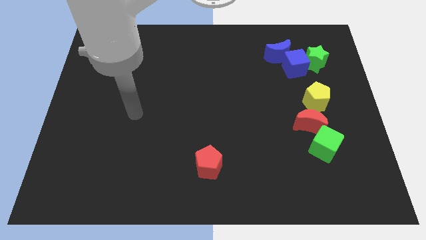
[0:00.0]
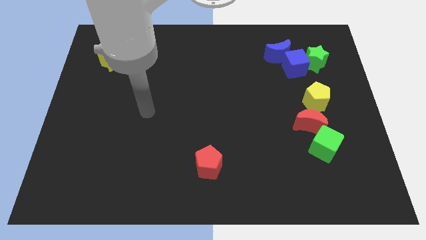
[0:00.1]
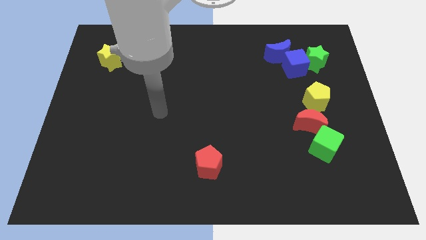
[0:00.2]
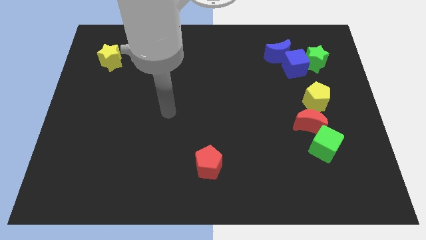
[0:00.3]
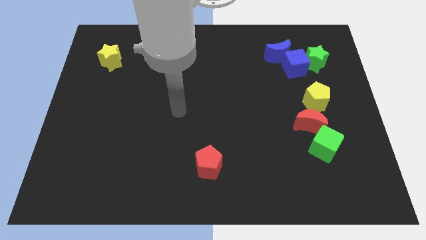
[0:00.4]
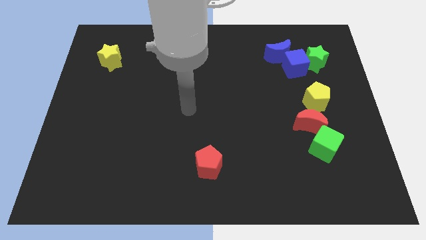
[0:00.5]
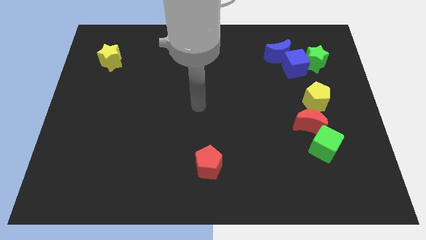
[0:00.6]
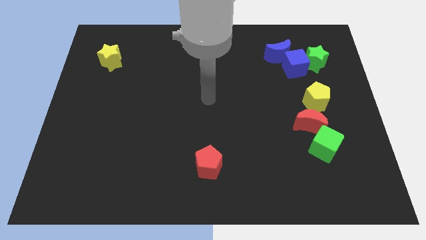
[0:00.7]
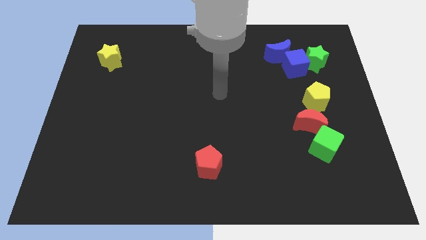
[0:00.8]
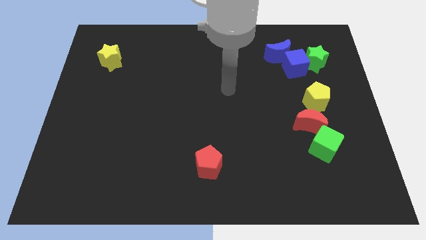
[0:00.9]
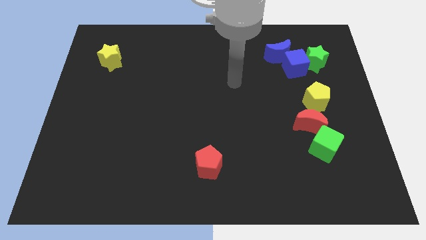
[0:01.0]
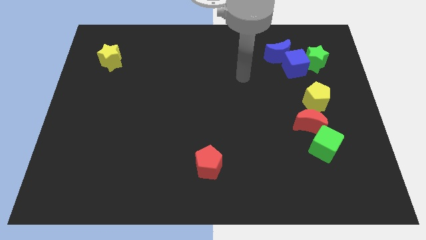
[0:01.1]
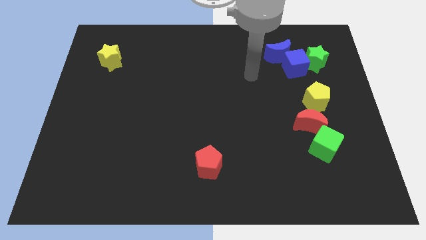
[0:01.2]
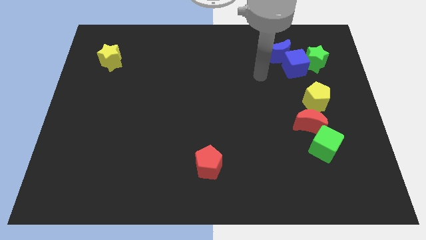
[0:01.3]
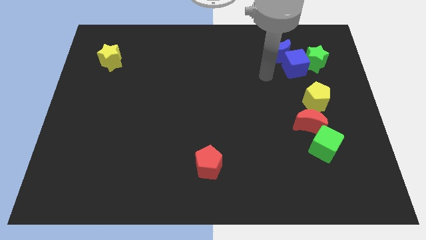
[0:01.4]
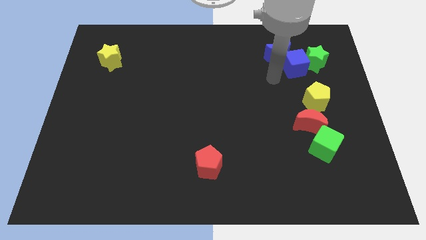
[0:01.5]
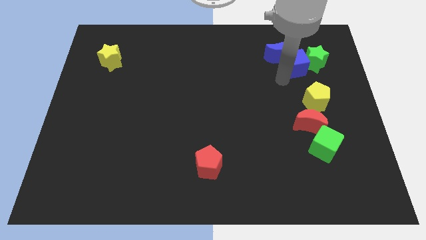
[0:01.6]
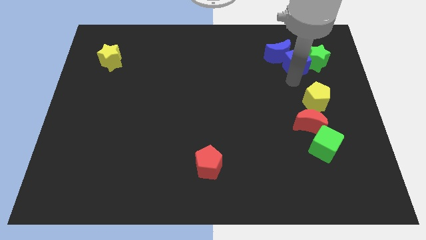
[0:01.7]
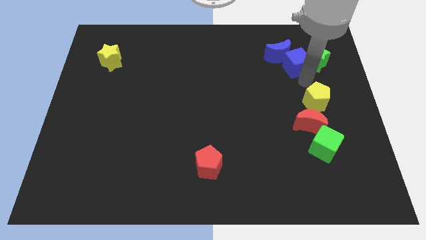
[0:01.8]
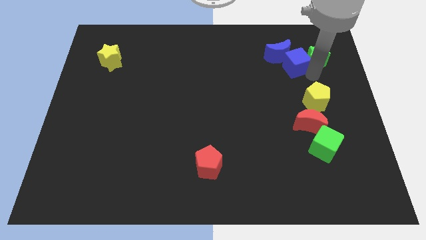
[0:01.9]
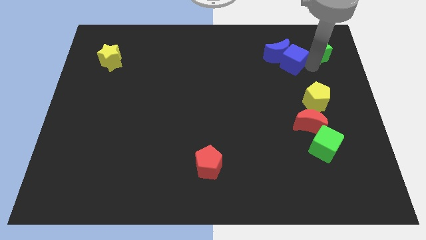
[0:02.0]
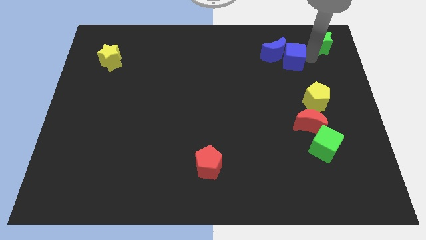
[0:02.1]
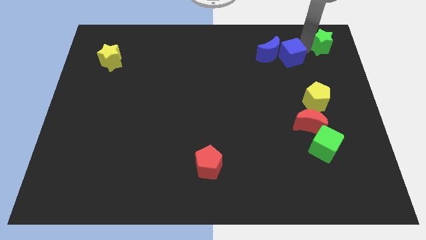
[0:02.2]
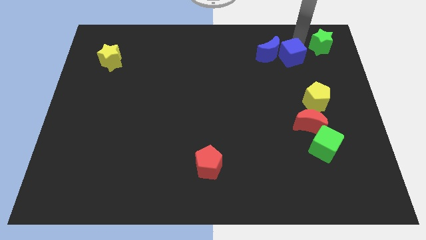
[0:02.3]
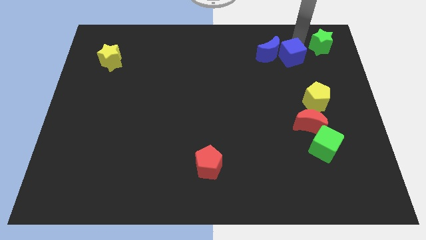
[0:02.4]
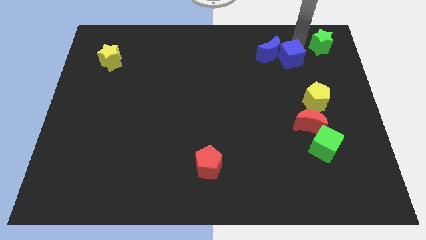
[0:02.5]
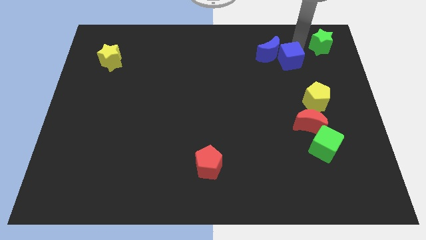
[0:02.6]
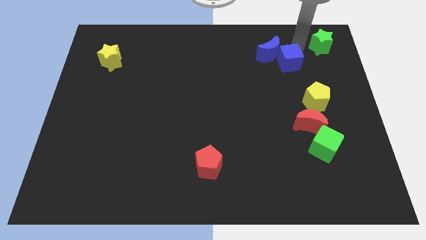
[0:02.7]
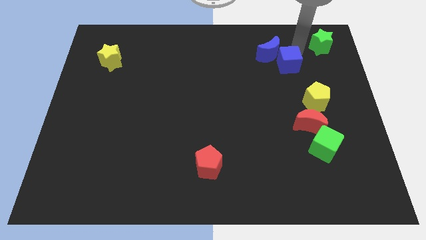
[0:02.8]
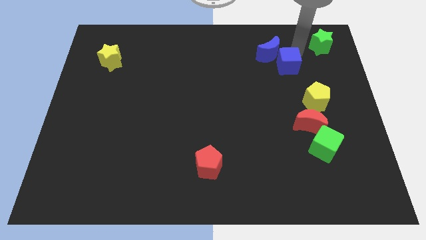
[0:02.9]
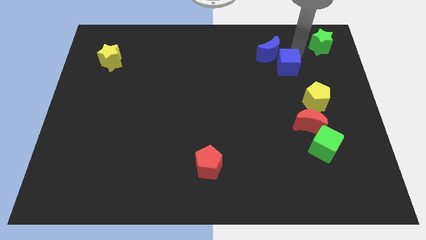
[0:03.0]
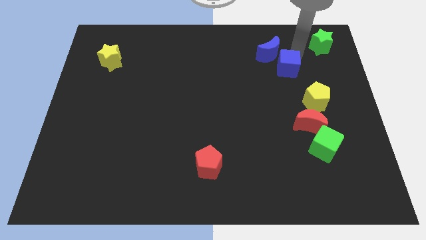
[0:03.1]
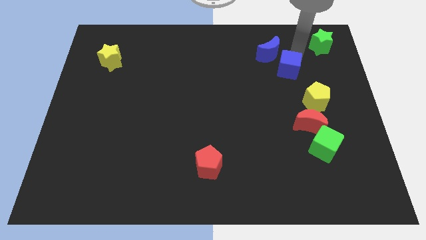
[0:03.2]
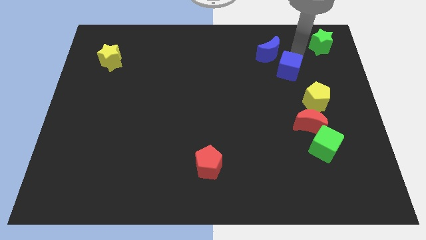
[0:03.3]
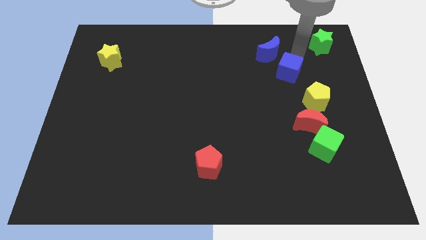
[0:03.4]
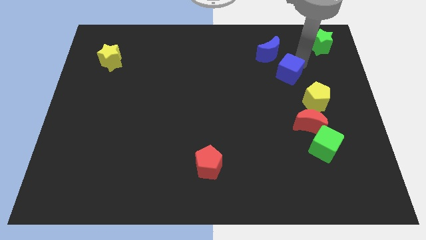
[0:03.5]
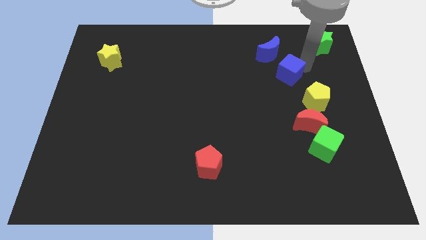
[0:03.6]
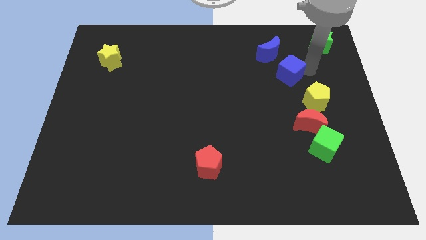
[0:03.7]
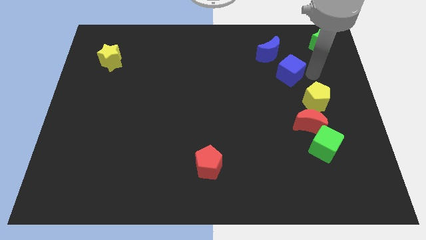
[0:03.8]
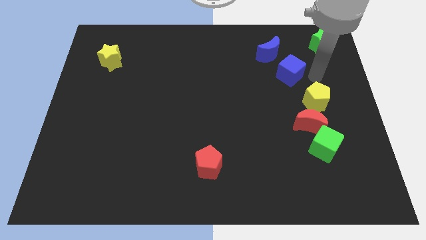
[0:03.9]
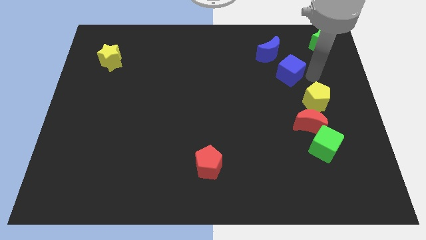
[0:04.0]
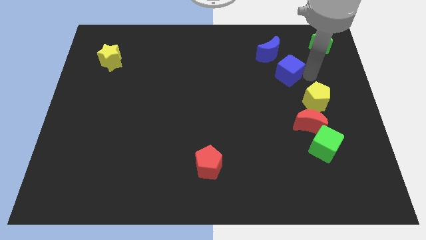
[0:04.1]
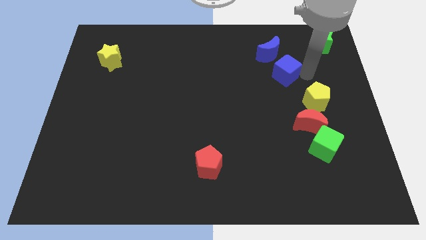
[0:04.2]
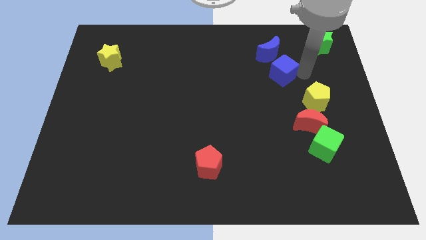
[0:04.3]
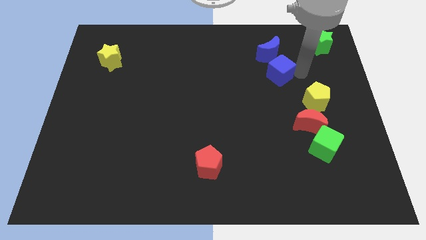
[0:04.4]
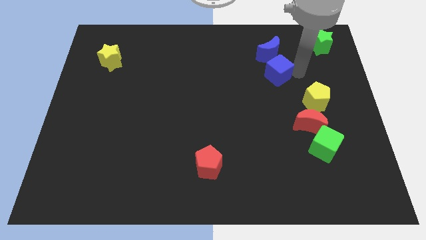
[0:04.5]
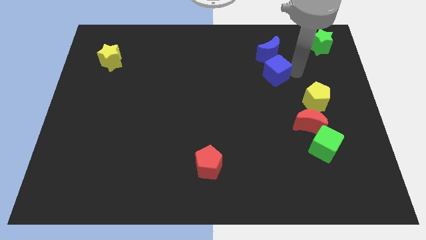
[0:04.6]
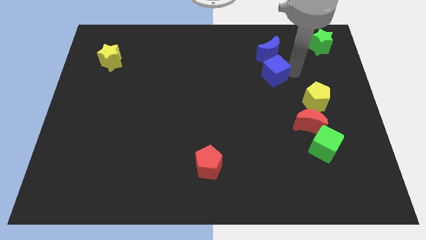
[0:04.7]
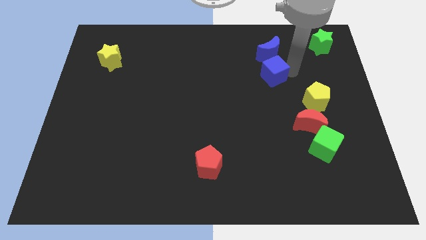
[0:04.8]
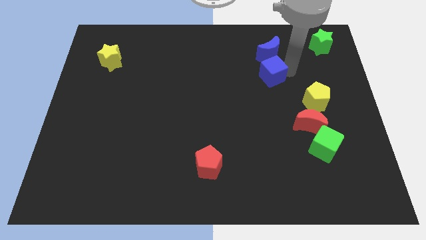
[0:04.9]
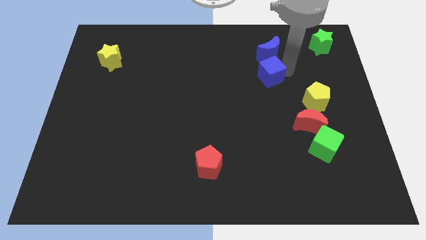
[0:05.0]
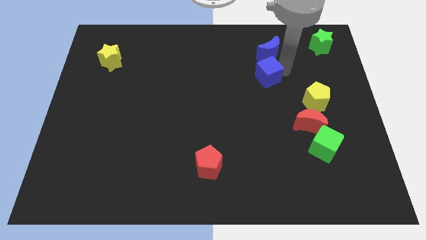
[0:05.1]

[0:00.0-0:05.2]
slightly slide the blue cube to the left

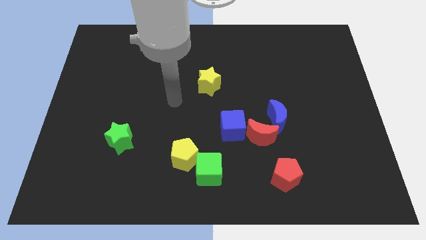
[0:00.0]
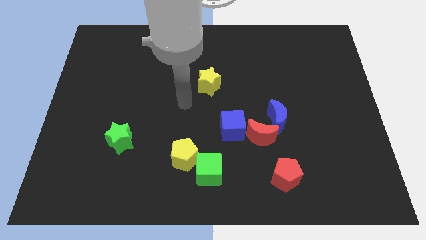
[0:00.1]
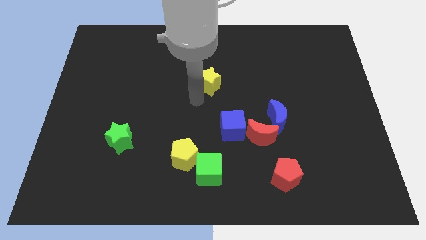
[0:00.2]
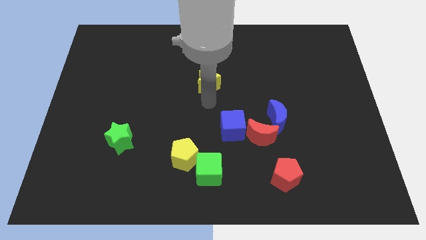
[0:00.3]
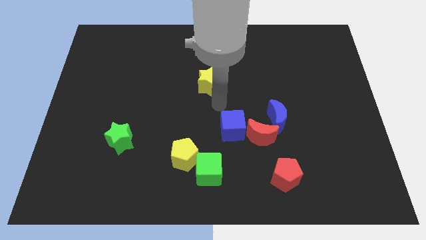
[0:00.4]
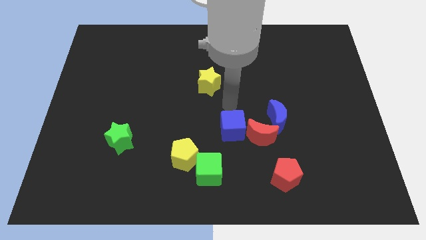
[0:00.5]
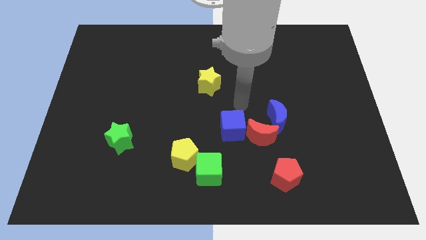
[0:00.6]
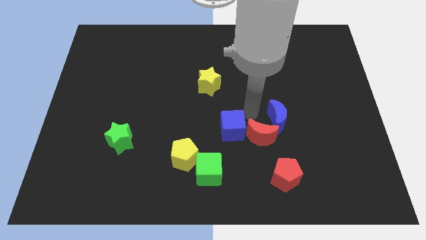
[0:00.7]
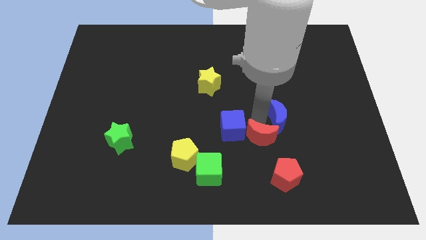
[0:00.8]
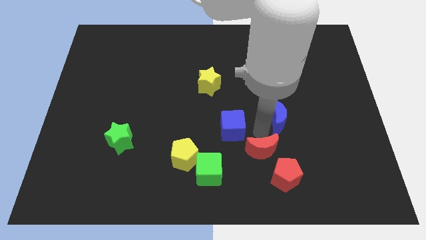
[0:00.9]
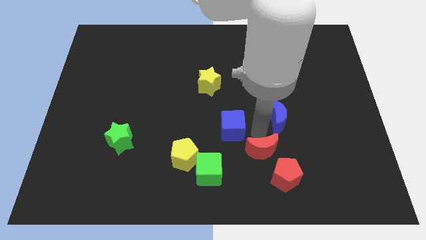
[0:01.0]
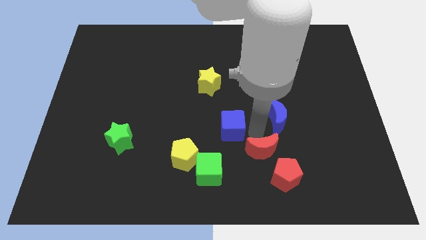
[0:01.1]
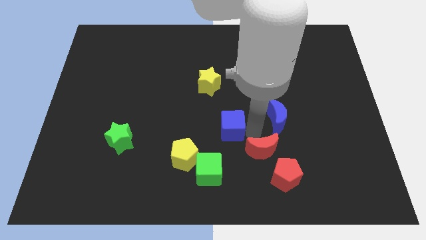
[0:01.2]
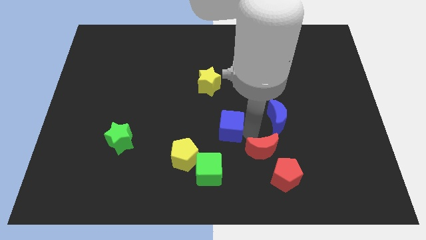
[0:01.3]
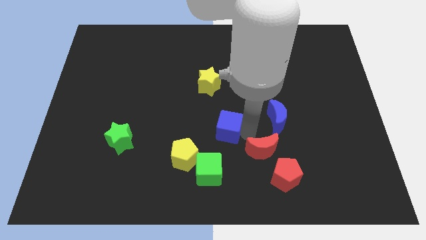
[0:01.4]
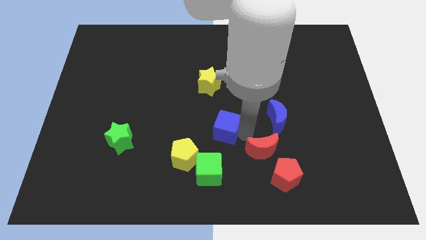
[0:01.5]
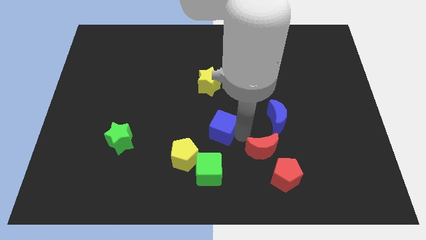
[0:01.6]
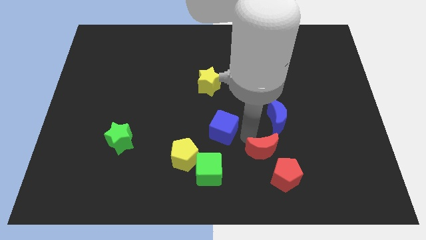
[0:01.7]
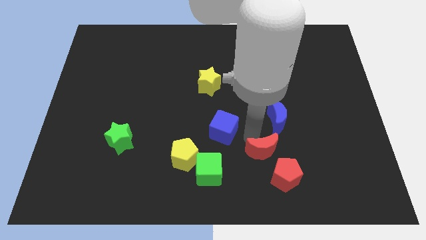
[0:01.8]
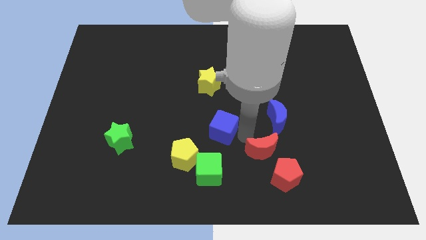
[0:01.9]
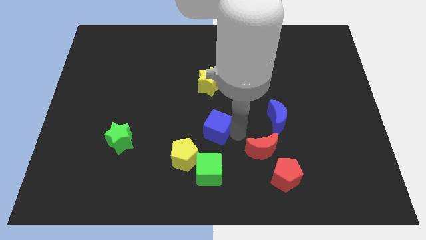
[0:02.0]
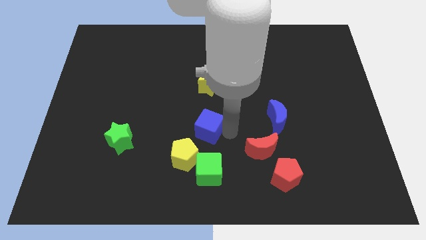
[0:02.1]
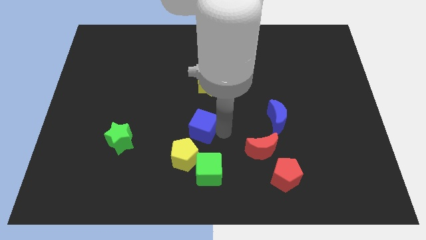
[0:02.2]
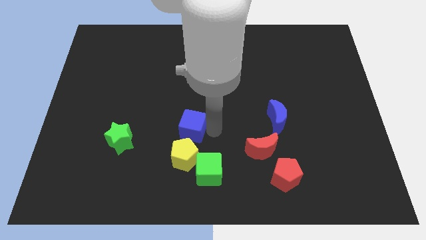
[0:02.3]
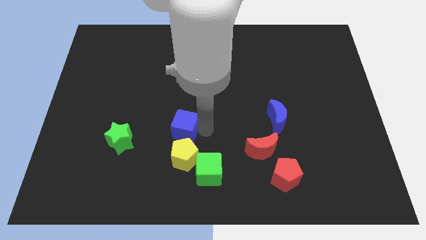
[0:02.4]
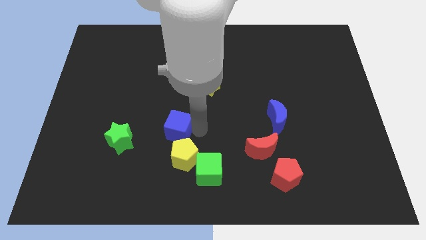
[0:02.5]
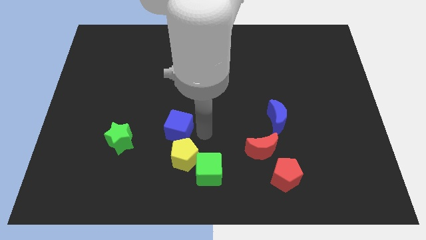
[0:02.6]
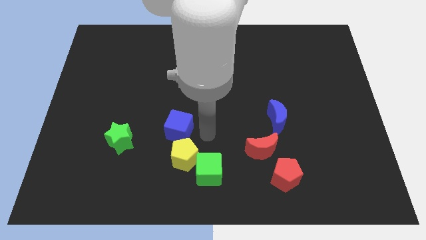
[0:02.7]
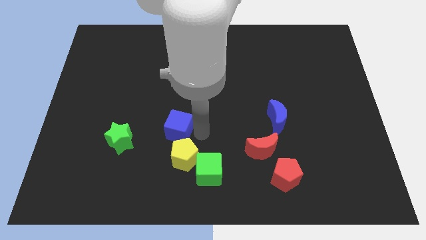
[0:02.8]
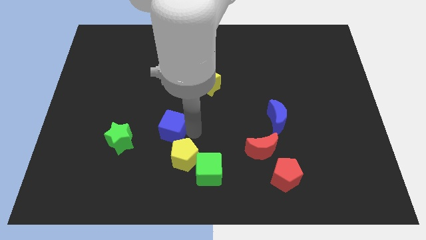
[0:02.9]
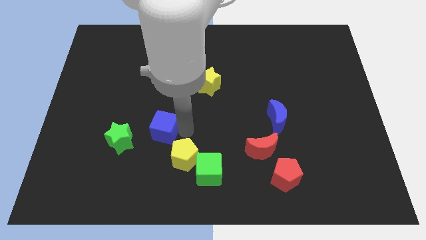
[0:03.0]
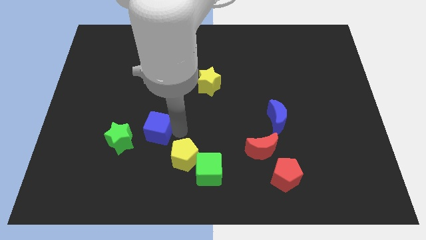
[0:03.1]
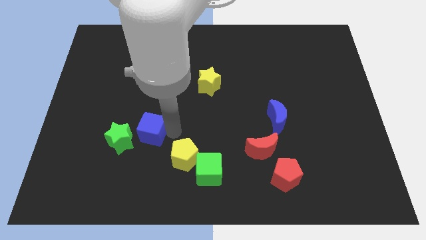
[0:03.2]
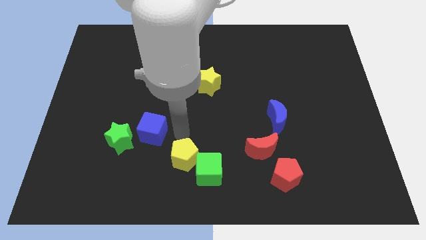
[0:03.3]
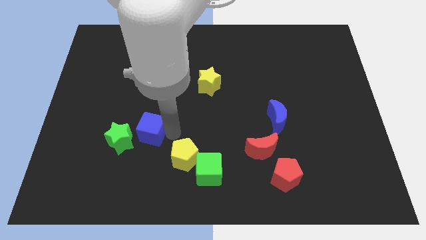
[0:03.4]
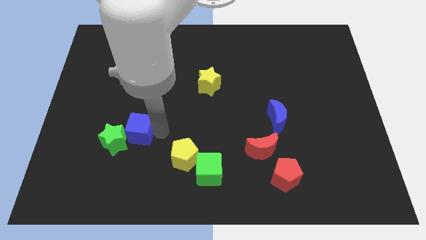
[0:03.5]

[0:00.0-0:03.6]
slide the blue cube left
